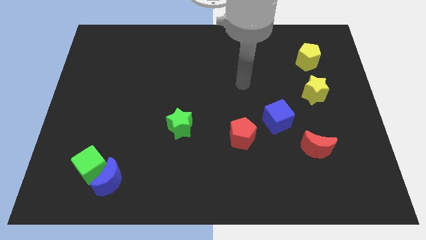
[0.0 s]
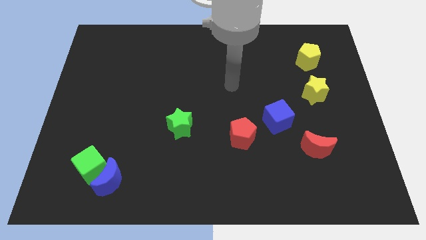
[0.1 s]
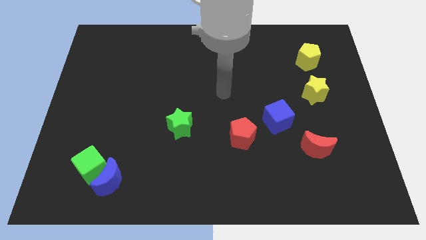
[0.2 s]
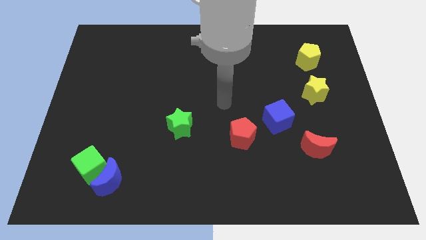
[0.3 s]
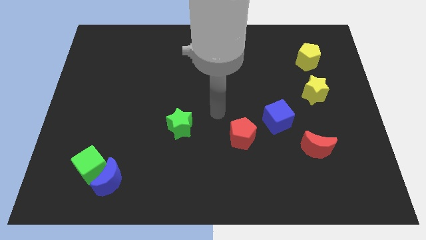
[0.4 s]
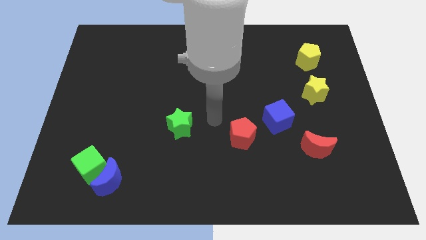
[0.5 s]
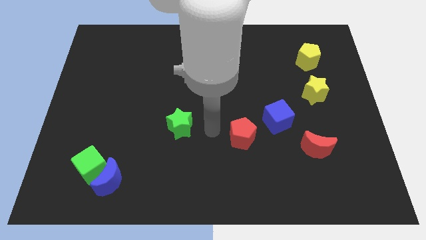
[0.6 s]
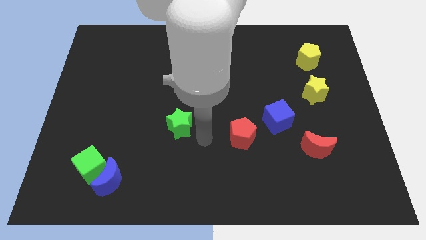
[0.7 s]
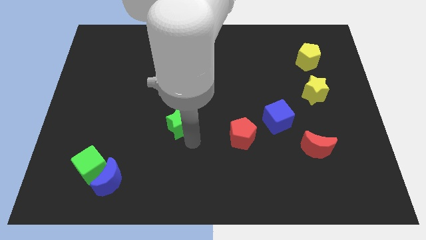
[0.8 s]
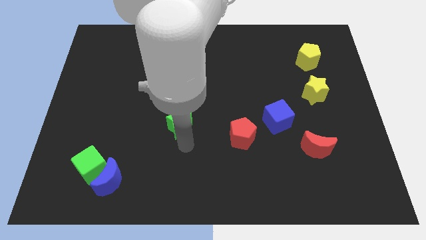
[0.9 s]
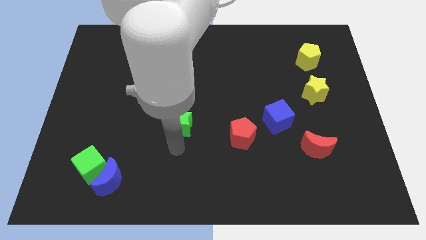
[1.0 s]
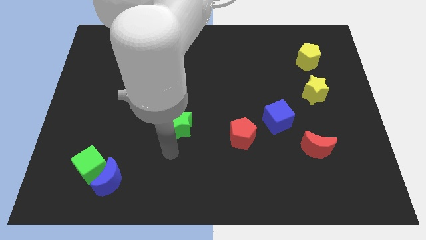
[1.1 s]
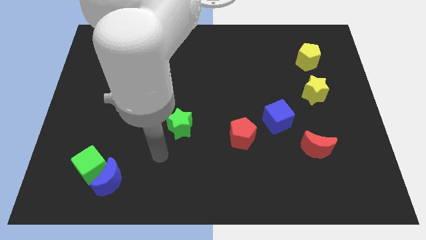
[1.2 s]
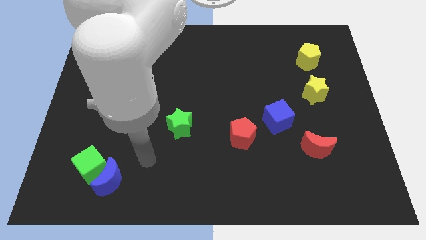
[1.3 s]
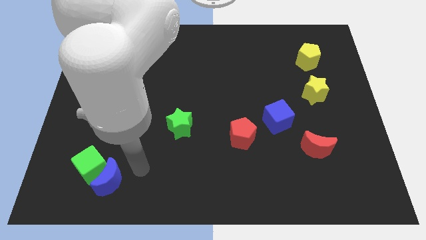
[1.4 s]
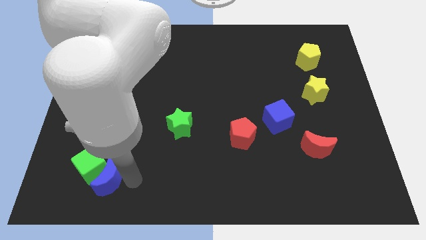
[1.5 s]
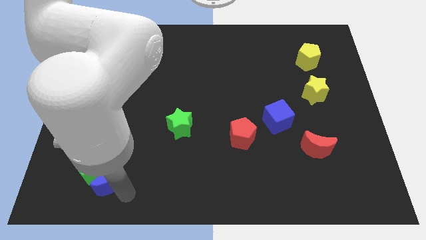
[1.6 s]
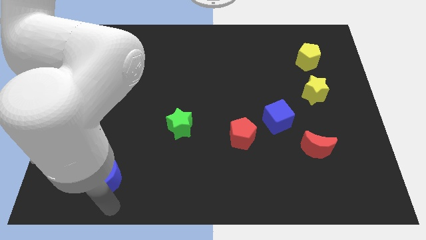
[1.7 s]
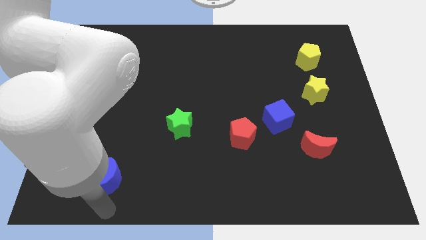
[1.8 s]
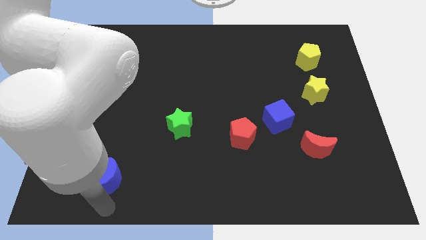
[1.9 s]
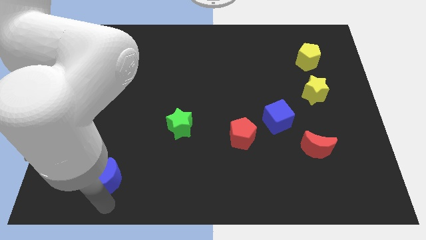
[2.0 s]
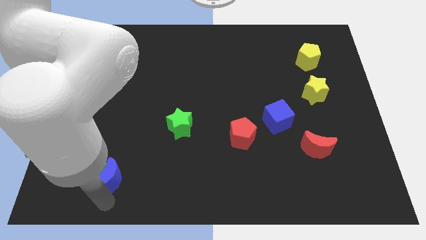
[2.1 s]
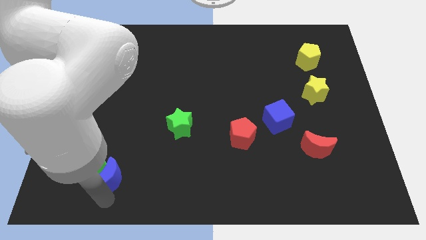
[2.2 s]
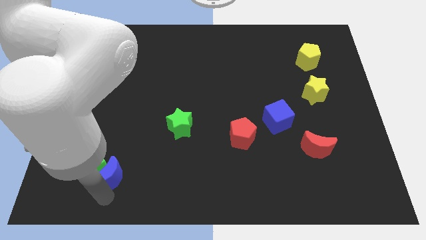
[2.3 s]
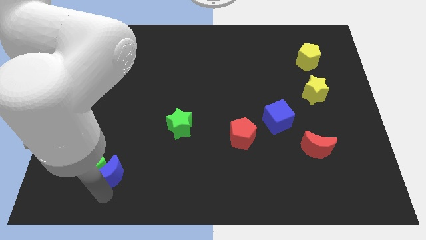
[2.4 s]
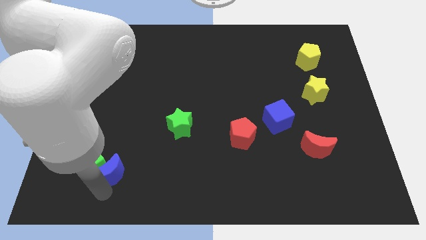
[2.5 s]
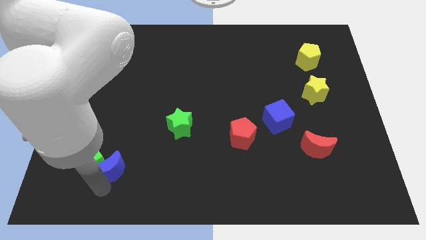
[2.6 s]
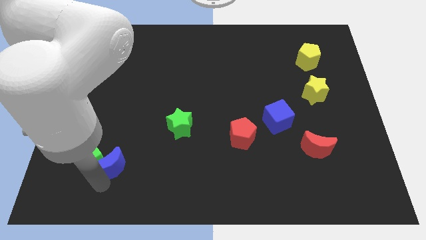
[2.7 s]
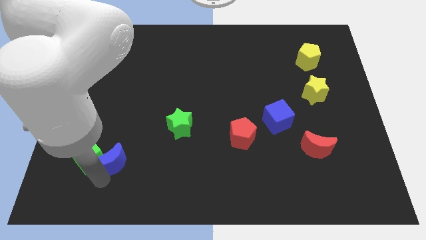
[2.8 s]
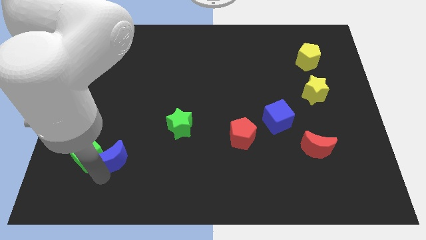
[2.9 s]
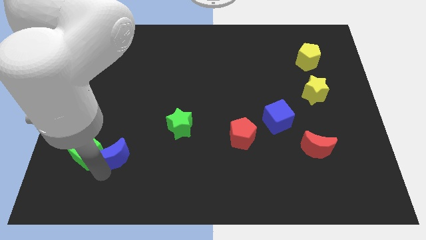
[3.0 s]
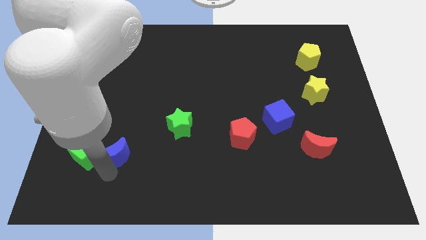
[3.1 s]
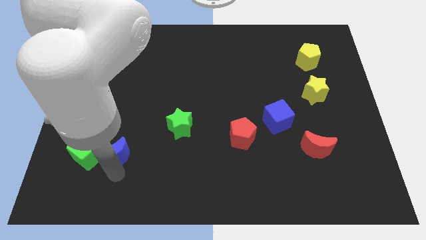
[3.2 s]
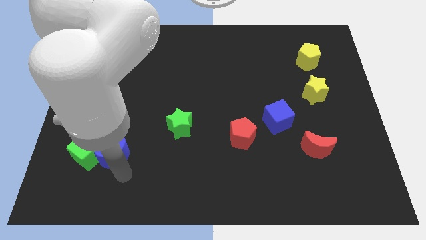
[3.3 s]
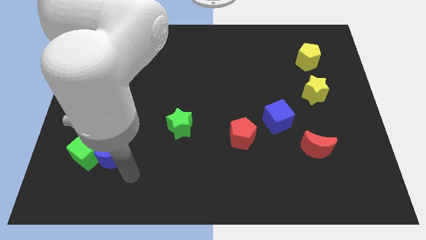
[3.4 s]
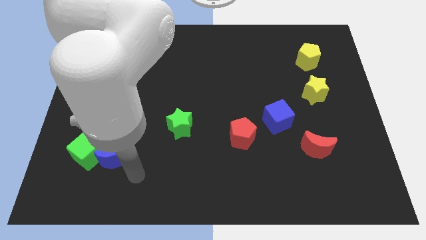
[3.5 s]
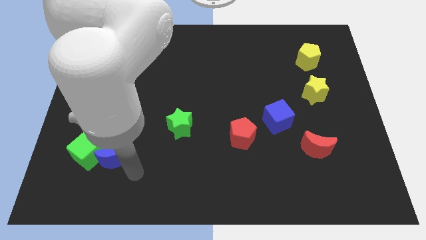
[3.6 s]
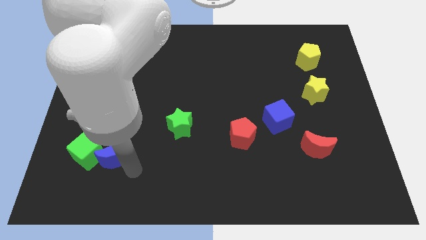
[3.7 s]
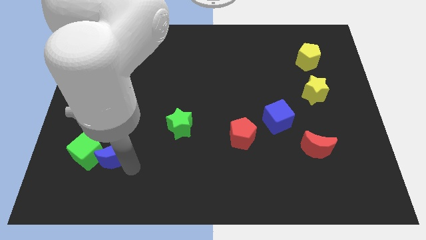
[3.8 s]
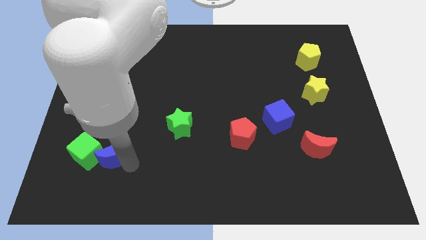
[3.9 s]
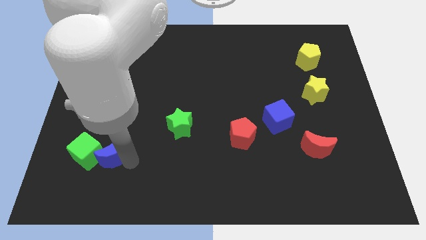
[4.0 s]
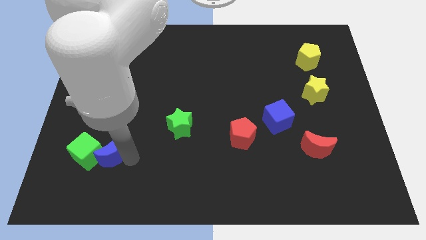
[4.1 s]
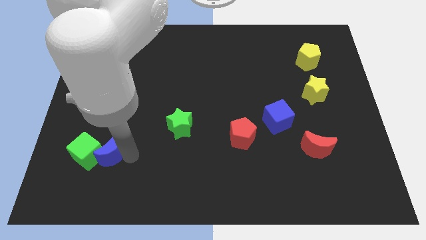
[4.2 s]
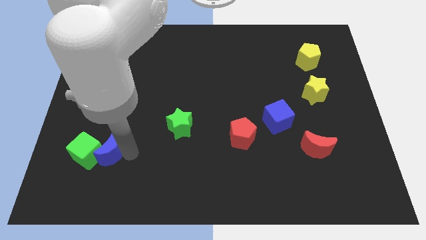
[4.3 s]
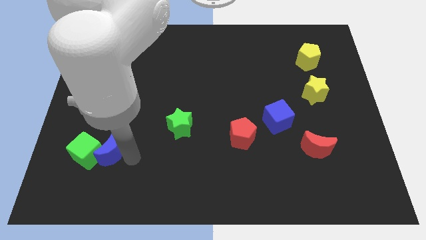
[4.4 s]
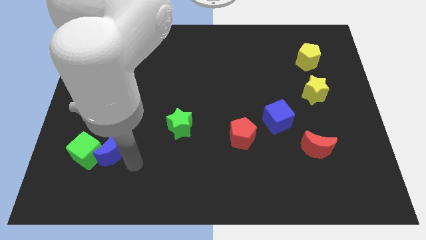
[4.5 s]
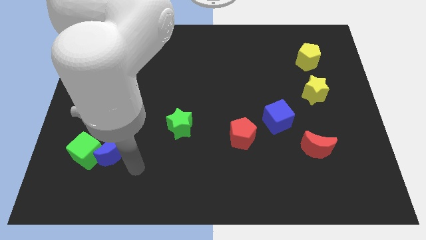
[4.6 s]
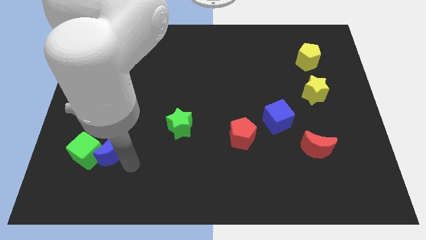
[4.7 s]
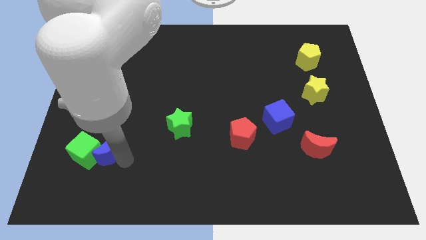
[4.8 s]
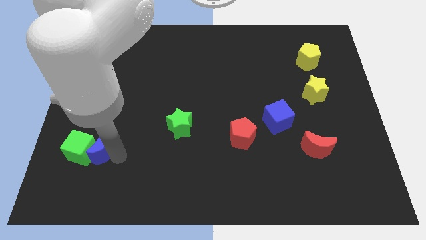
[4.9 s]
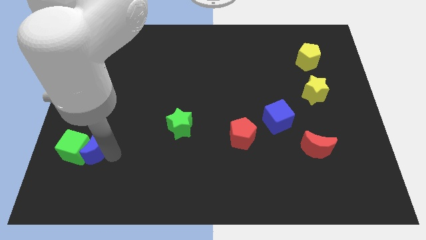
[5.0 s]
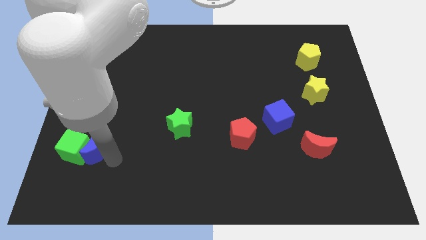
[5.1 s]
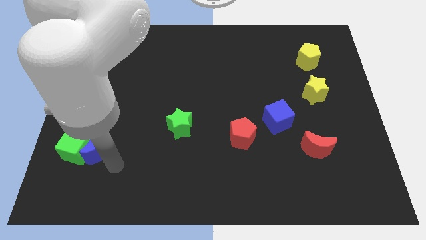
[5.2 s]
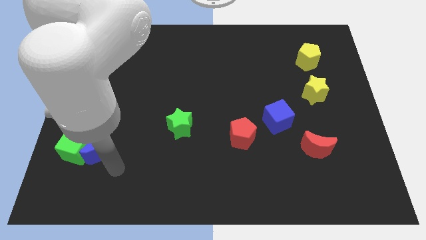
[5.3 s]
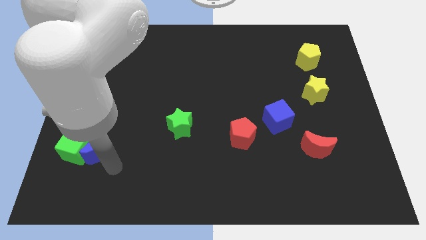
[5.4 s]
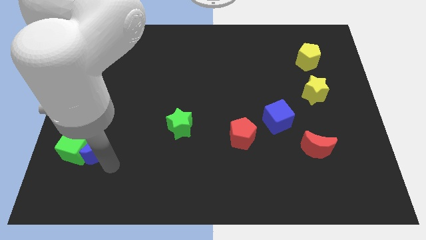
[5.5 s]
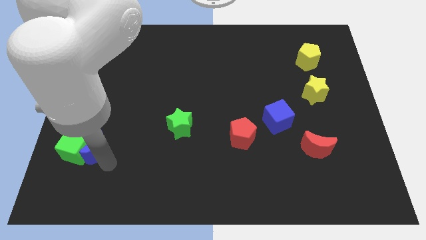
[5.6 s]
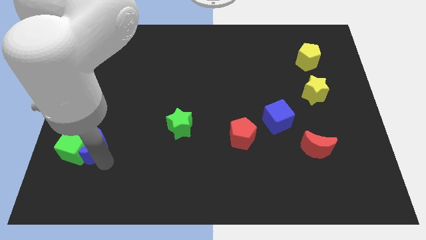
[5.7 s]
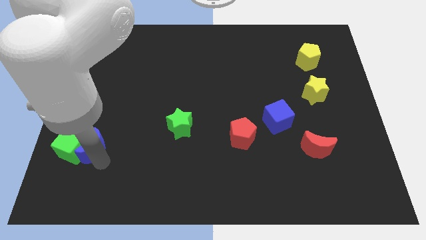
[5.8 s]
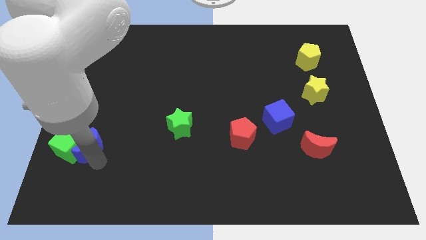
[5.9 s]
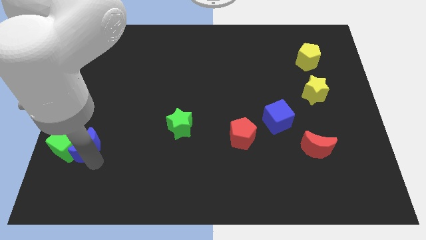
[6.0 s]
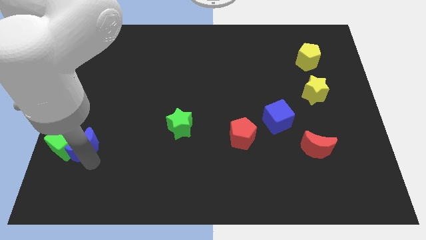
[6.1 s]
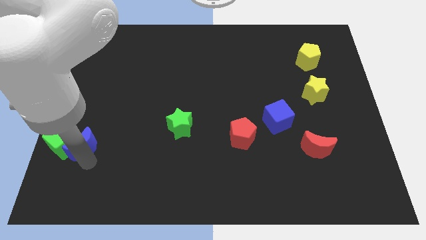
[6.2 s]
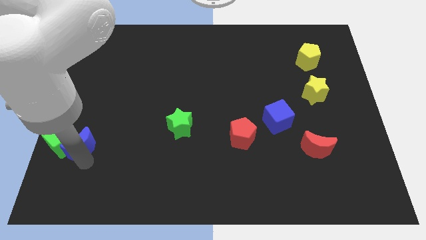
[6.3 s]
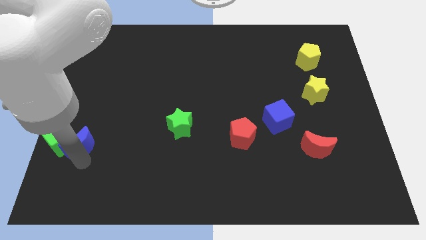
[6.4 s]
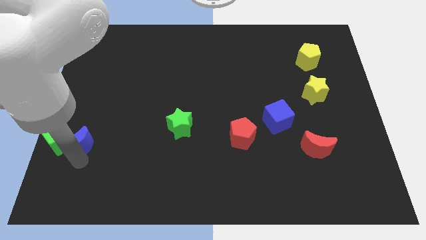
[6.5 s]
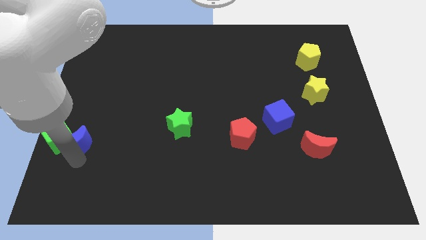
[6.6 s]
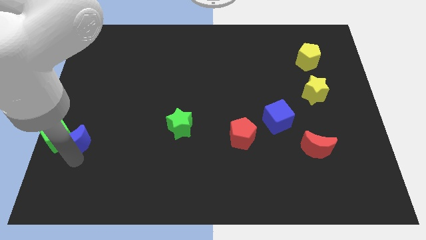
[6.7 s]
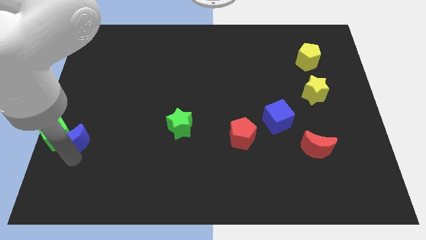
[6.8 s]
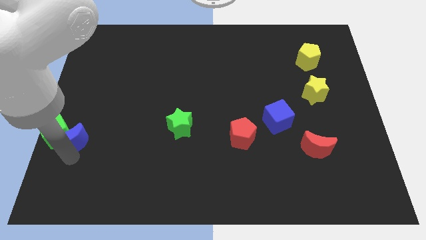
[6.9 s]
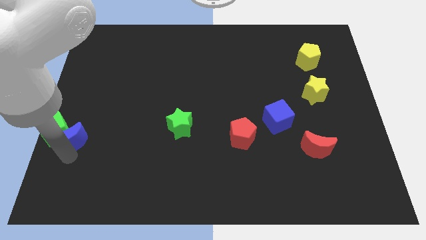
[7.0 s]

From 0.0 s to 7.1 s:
slide the blue moon to the center left
